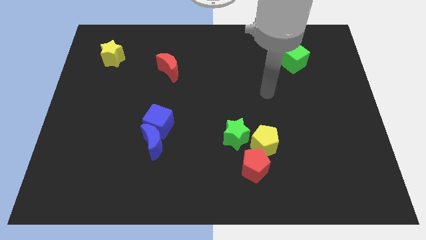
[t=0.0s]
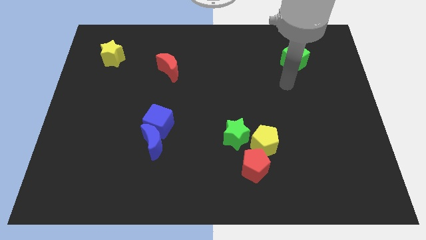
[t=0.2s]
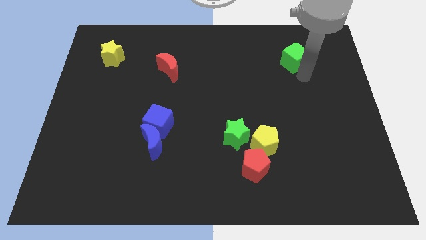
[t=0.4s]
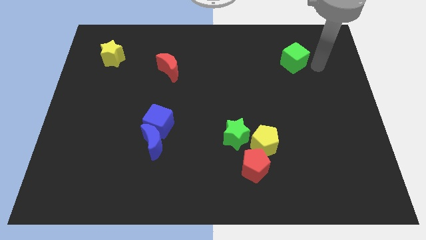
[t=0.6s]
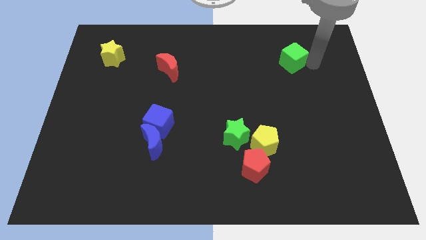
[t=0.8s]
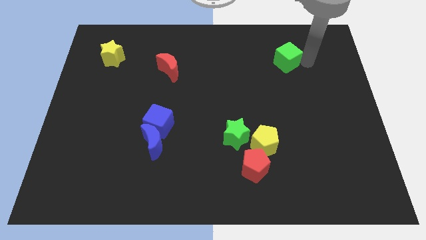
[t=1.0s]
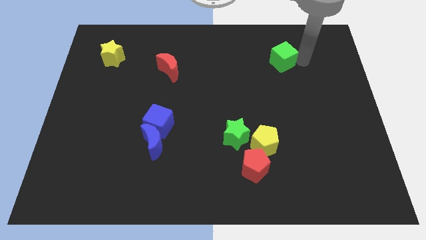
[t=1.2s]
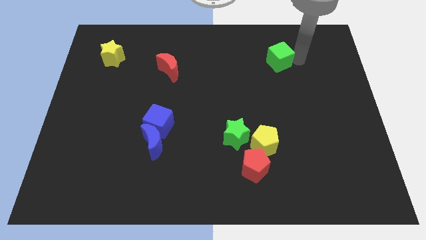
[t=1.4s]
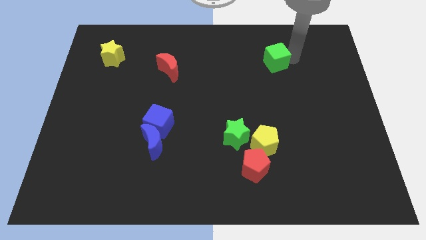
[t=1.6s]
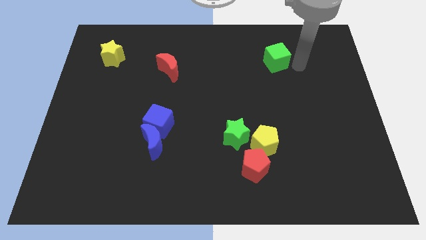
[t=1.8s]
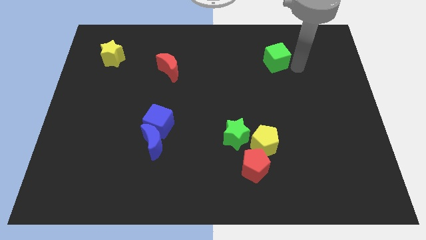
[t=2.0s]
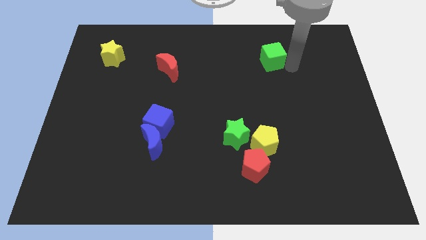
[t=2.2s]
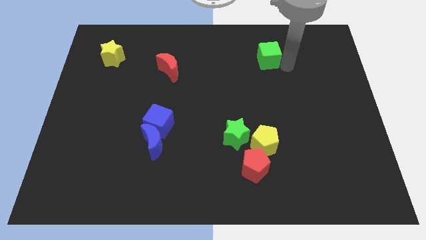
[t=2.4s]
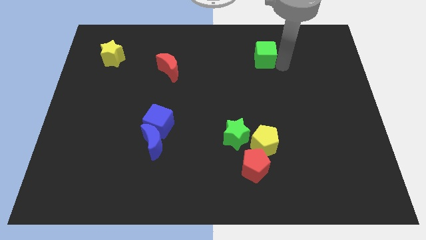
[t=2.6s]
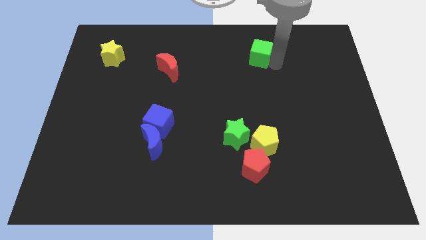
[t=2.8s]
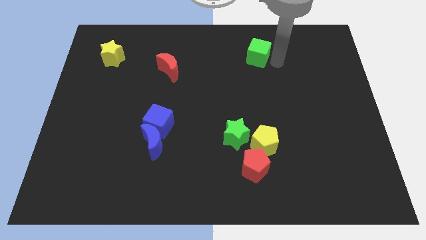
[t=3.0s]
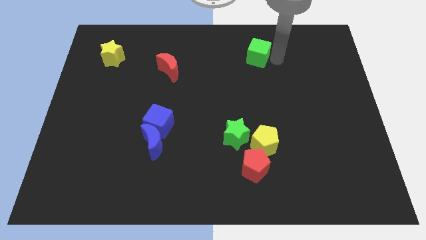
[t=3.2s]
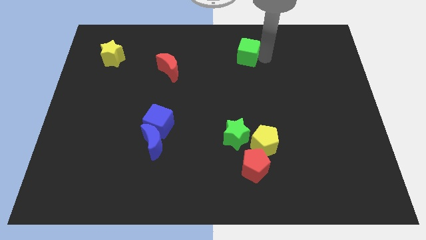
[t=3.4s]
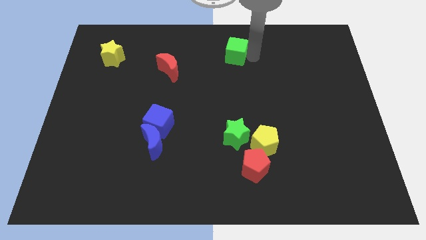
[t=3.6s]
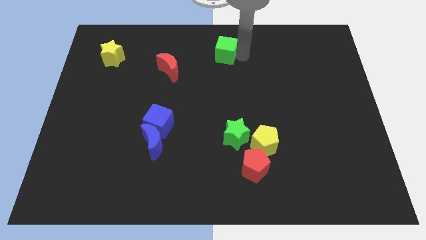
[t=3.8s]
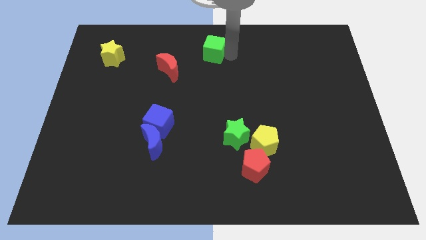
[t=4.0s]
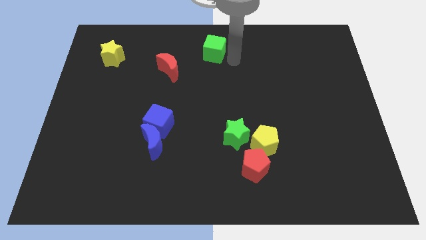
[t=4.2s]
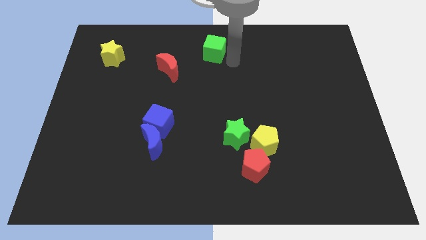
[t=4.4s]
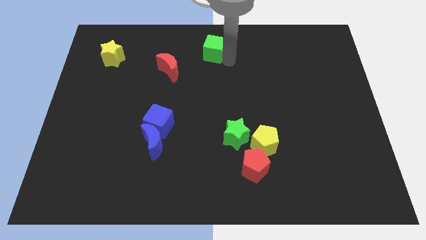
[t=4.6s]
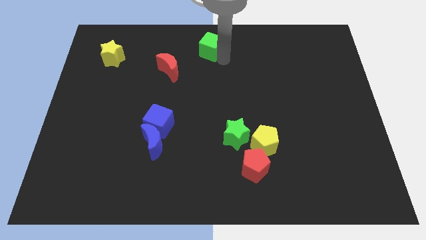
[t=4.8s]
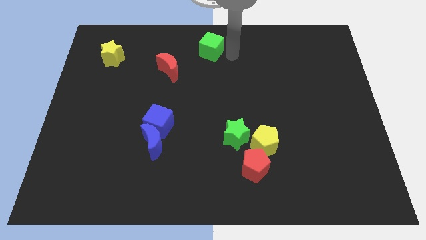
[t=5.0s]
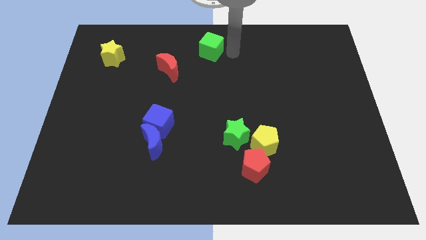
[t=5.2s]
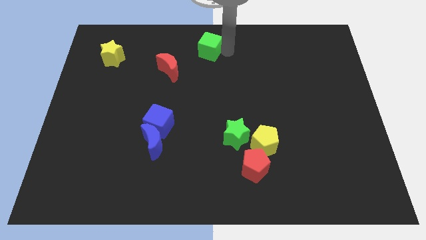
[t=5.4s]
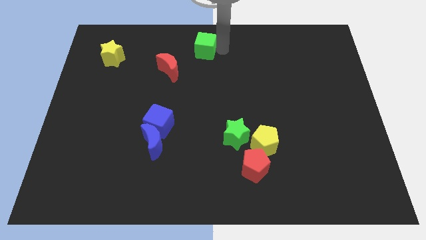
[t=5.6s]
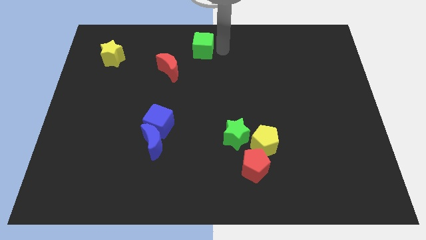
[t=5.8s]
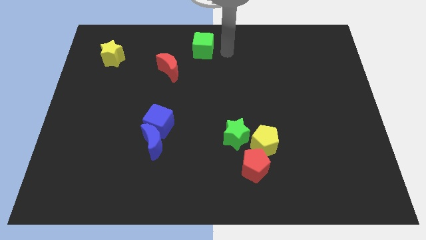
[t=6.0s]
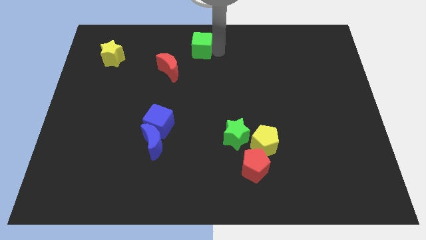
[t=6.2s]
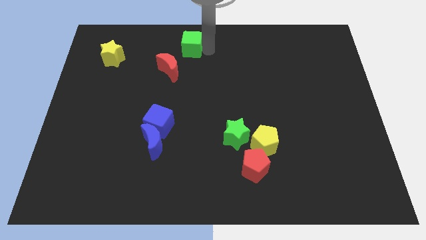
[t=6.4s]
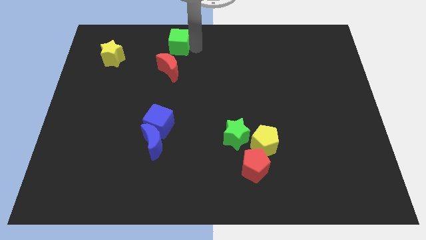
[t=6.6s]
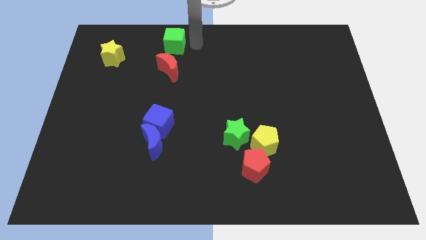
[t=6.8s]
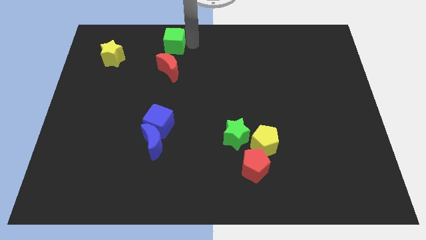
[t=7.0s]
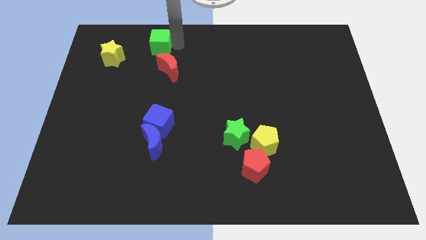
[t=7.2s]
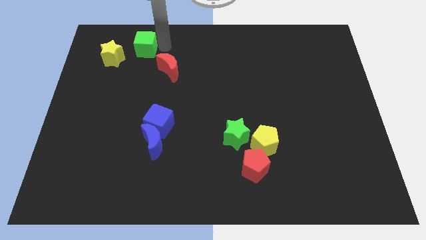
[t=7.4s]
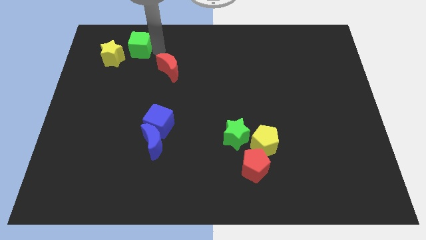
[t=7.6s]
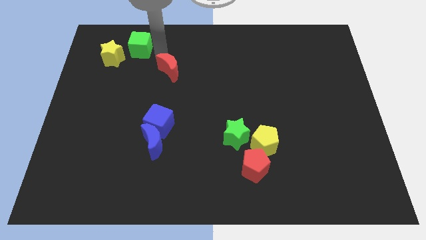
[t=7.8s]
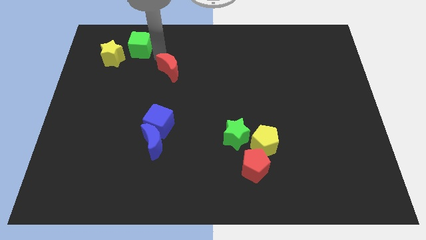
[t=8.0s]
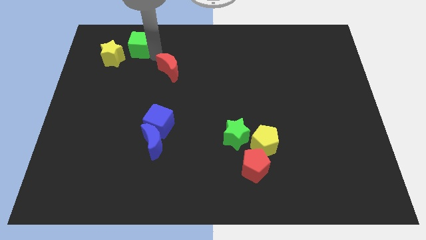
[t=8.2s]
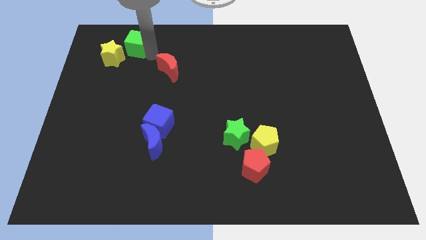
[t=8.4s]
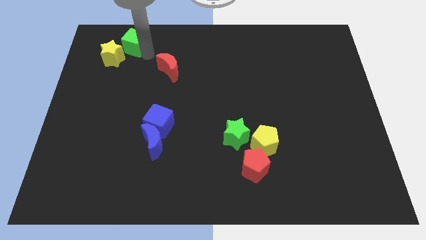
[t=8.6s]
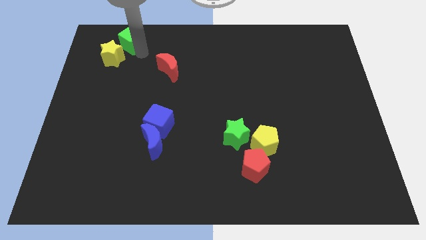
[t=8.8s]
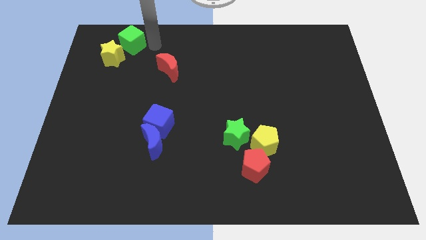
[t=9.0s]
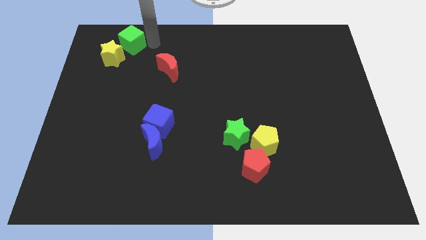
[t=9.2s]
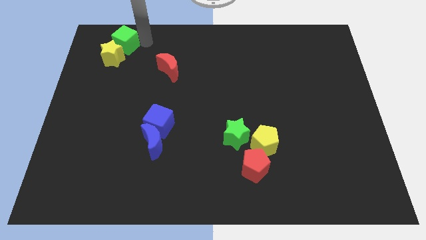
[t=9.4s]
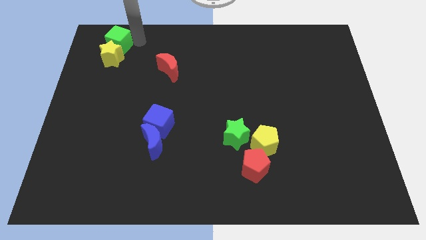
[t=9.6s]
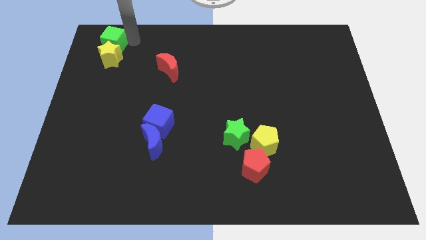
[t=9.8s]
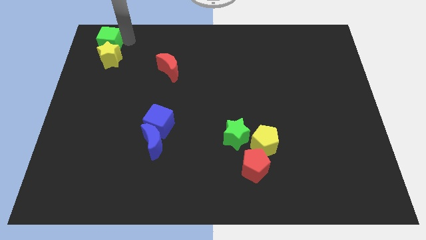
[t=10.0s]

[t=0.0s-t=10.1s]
move the green cube to the top left of the board

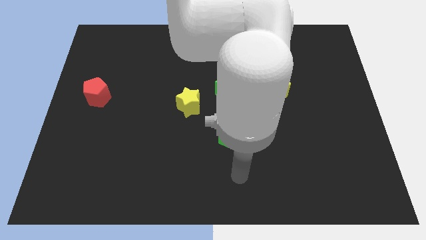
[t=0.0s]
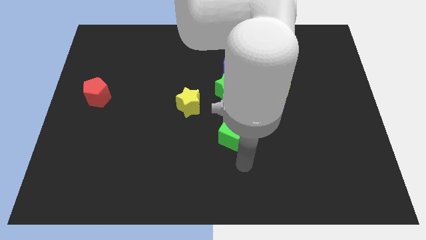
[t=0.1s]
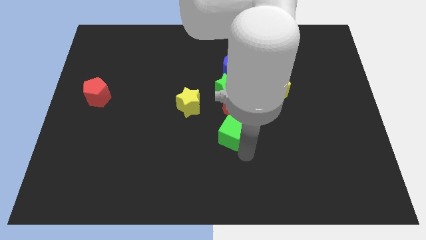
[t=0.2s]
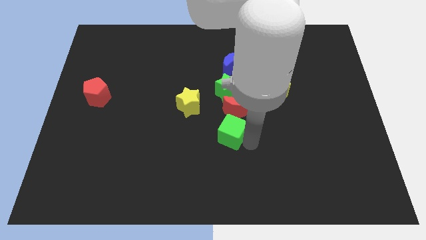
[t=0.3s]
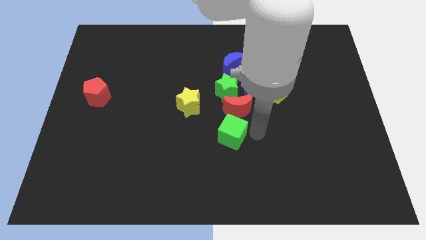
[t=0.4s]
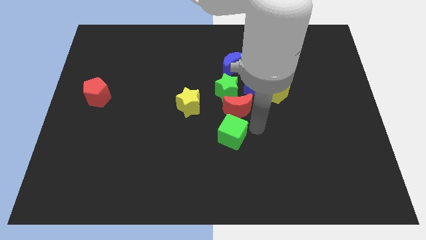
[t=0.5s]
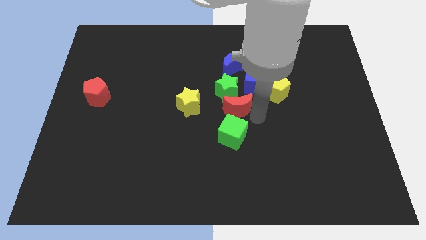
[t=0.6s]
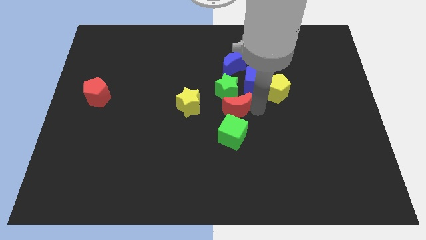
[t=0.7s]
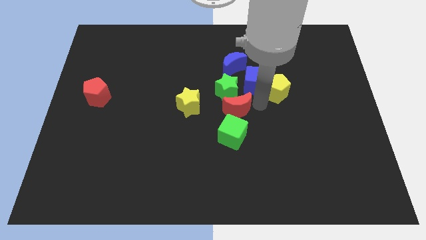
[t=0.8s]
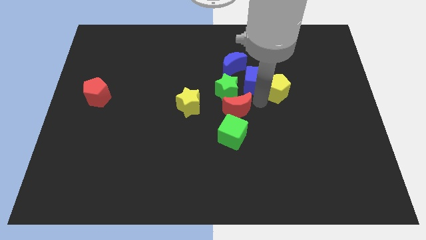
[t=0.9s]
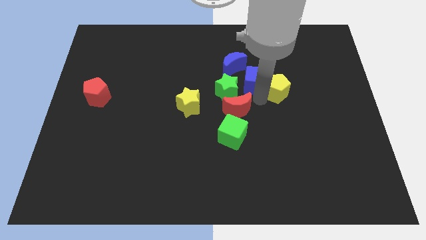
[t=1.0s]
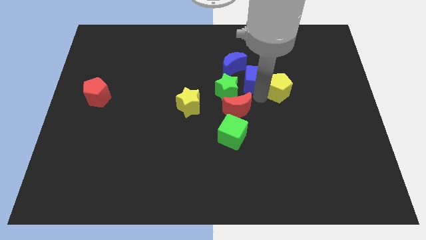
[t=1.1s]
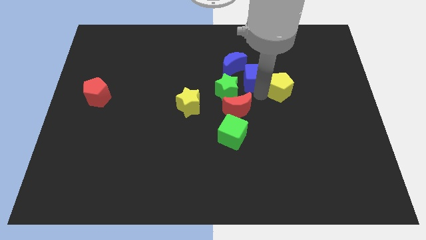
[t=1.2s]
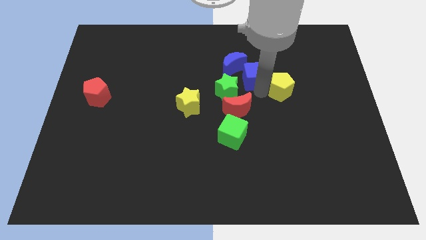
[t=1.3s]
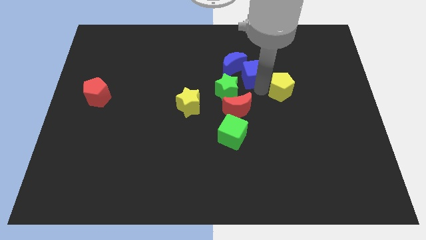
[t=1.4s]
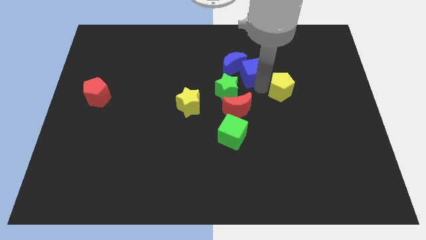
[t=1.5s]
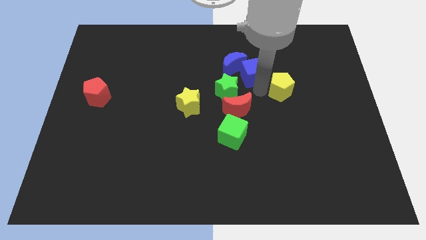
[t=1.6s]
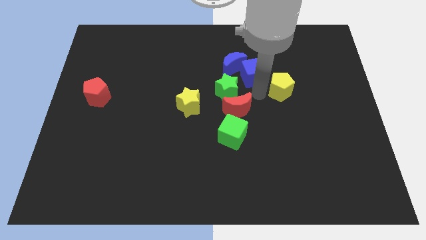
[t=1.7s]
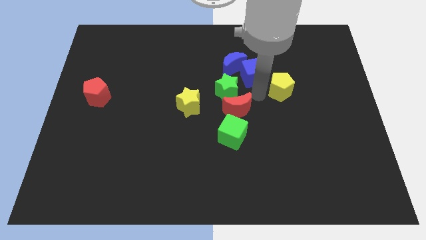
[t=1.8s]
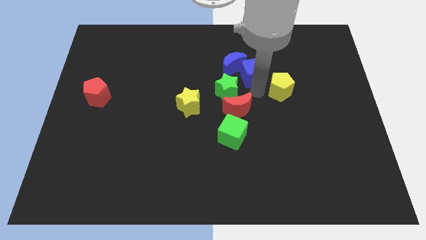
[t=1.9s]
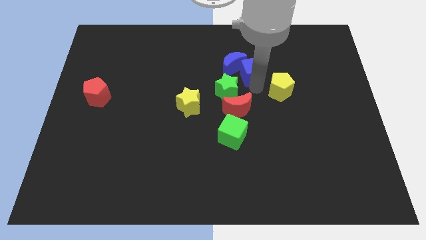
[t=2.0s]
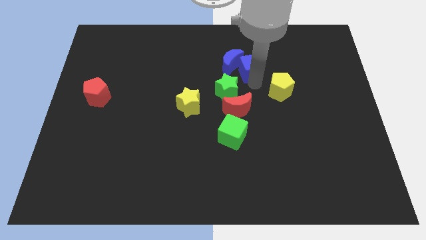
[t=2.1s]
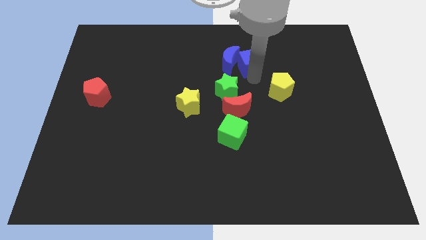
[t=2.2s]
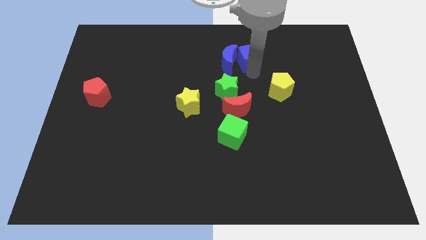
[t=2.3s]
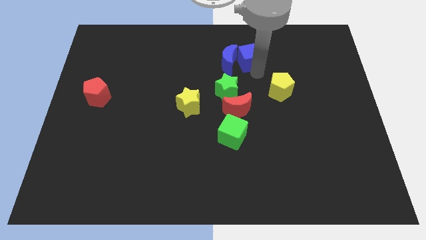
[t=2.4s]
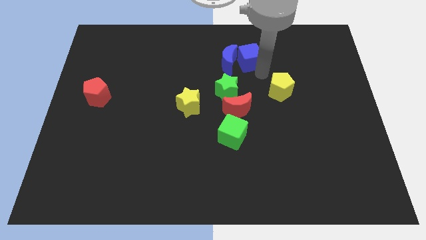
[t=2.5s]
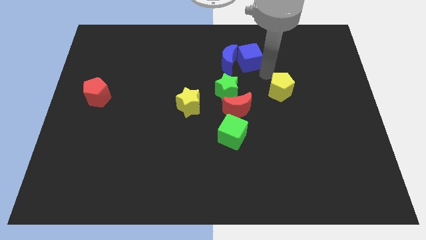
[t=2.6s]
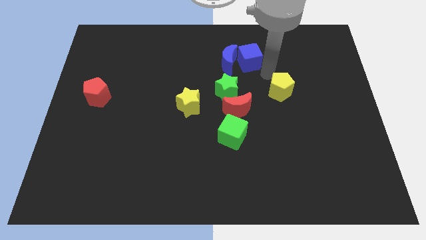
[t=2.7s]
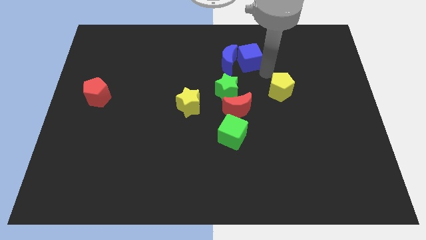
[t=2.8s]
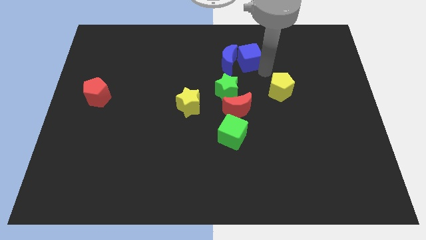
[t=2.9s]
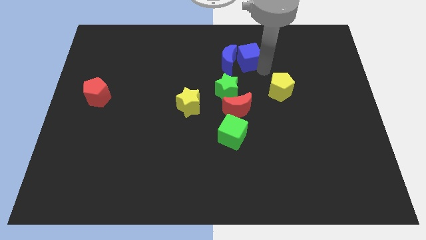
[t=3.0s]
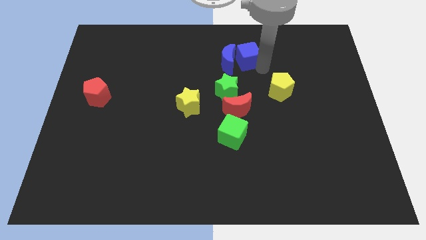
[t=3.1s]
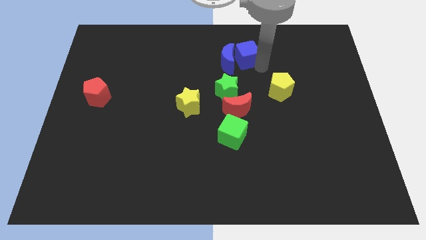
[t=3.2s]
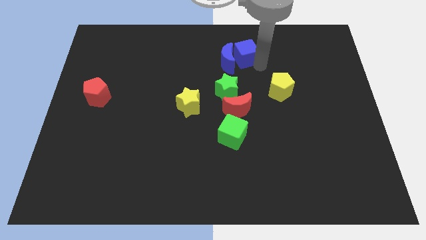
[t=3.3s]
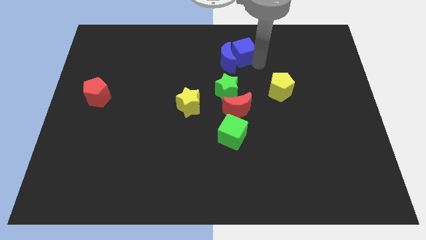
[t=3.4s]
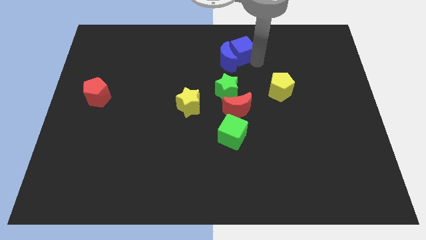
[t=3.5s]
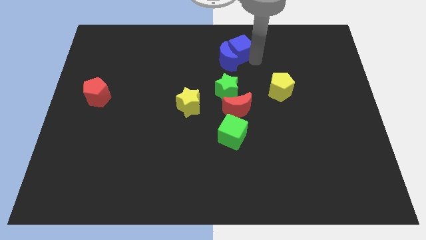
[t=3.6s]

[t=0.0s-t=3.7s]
slide the blue cube to the top
